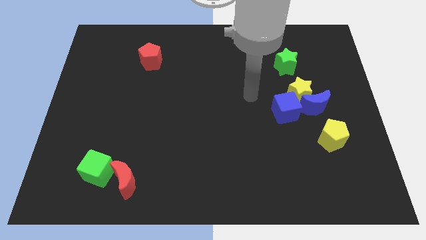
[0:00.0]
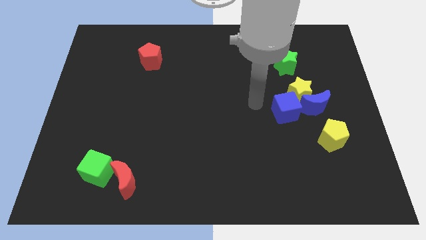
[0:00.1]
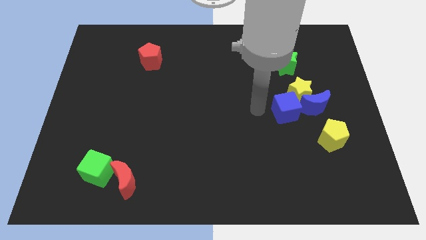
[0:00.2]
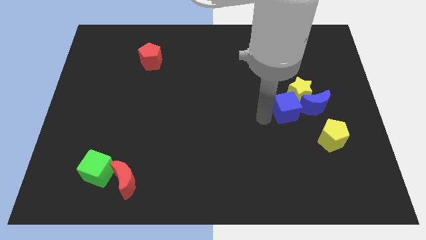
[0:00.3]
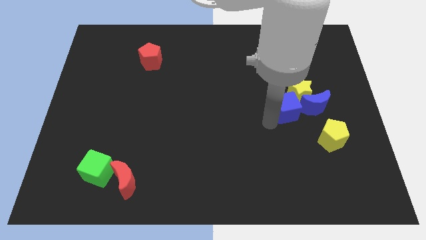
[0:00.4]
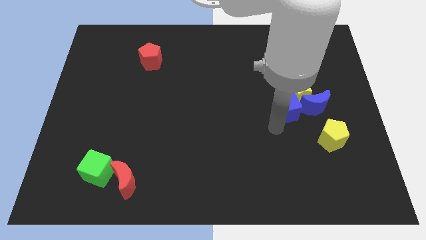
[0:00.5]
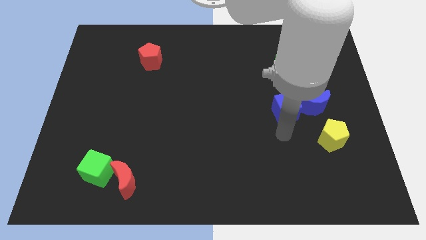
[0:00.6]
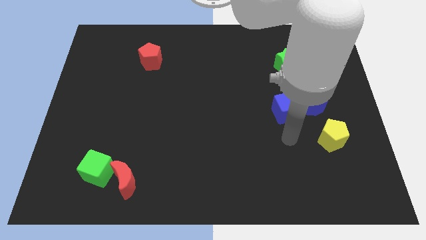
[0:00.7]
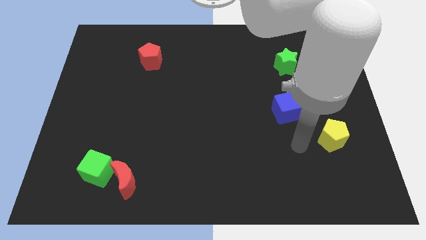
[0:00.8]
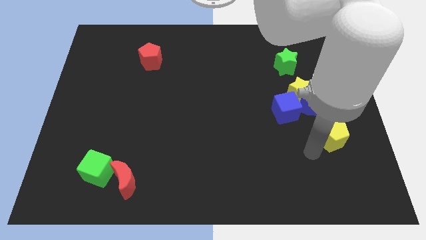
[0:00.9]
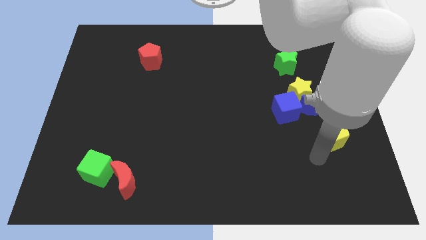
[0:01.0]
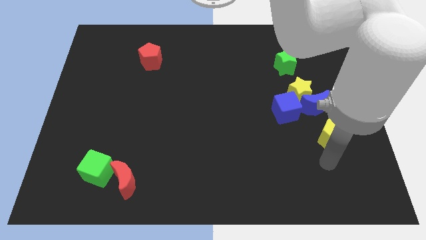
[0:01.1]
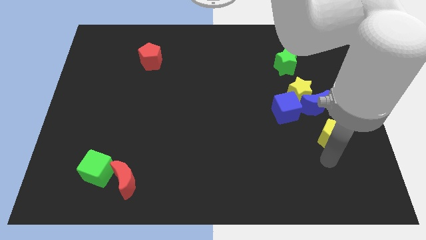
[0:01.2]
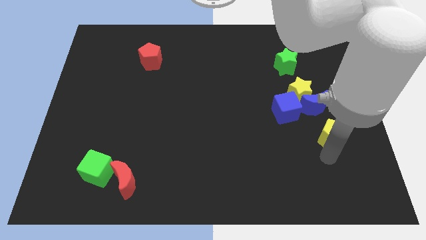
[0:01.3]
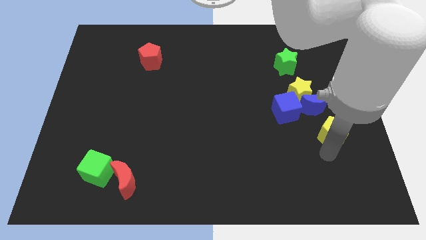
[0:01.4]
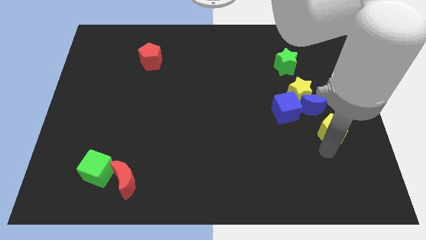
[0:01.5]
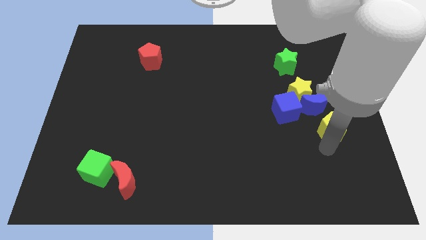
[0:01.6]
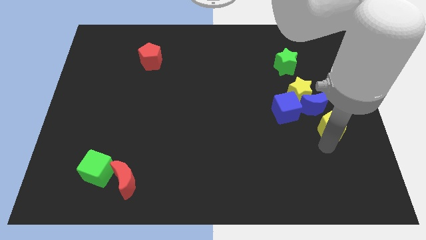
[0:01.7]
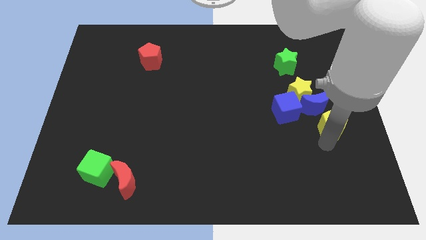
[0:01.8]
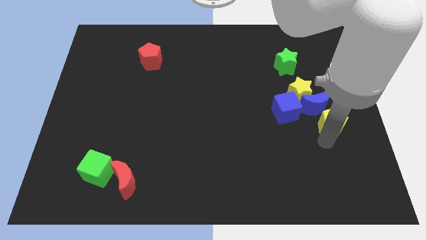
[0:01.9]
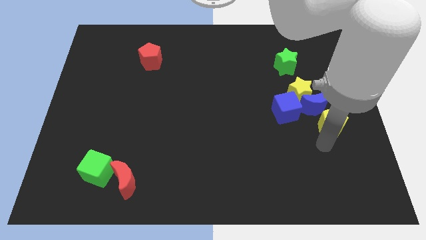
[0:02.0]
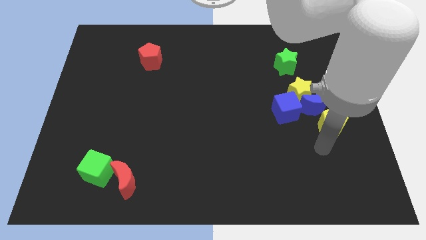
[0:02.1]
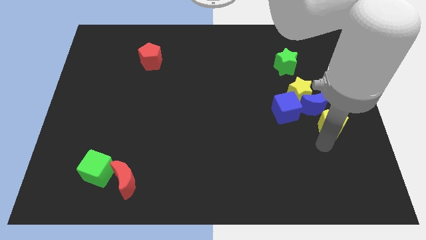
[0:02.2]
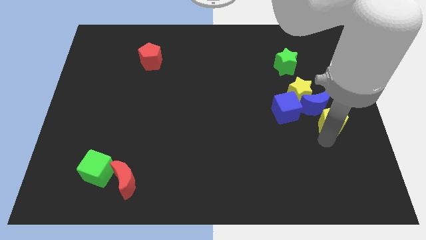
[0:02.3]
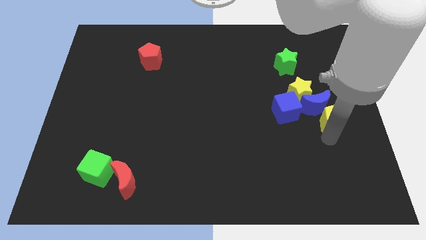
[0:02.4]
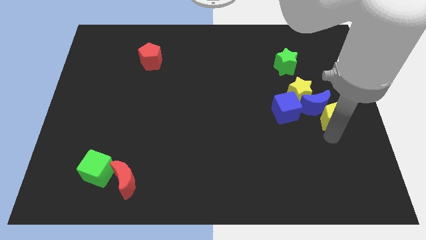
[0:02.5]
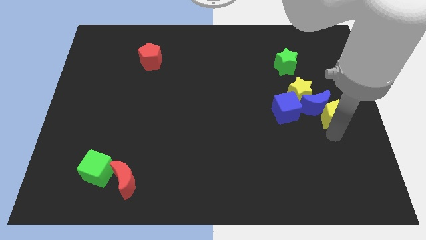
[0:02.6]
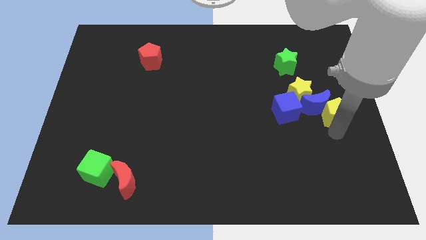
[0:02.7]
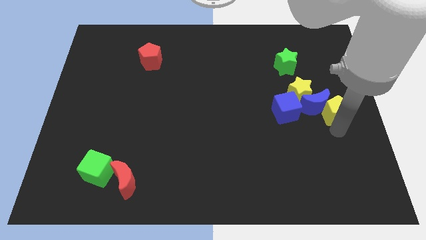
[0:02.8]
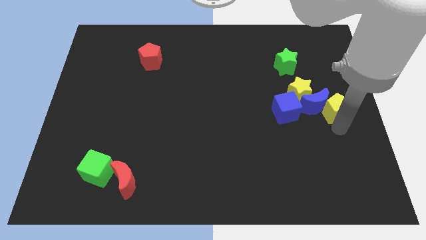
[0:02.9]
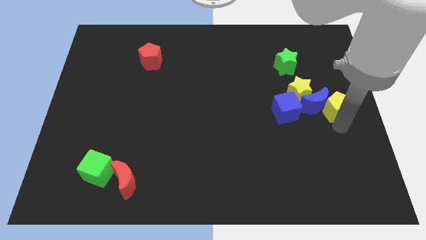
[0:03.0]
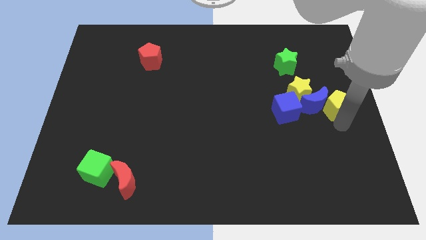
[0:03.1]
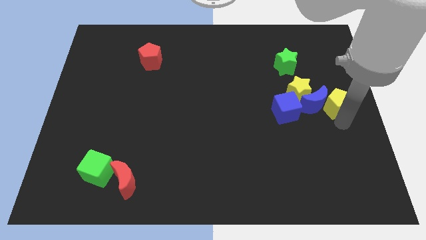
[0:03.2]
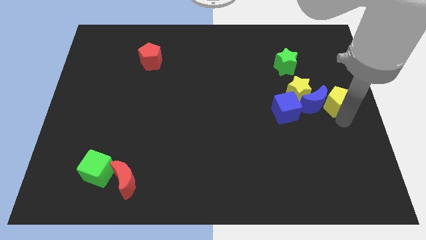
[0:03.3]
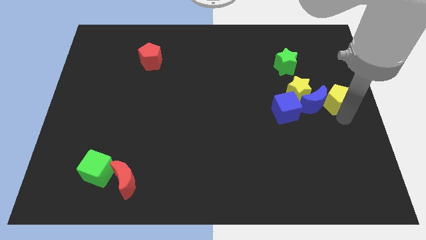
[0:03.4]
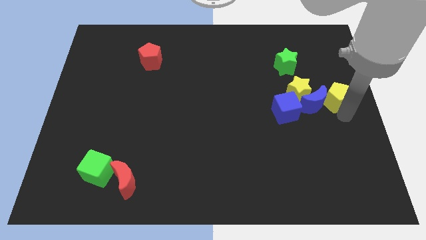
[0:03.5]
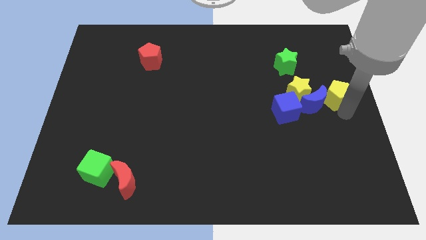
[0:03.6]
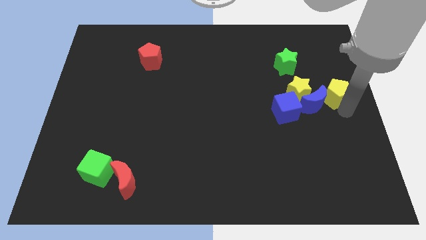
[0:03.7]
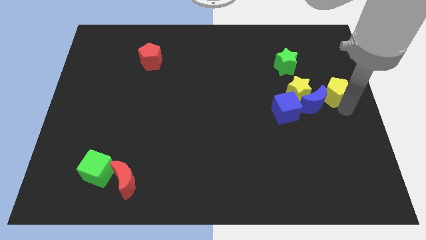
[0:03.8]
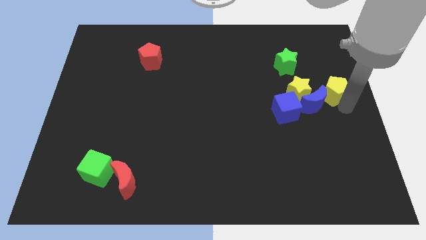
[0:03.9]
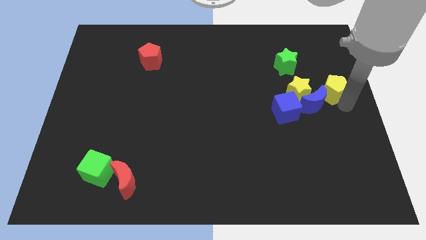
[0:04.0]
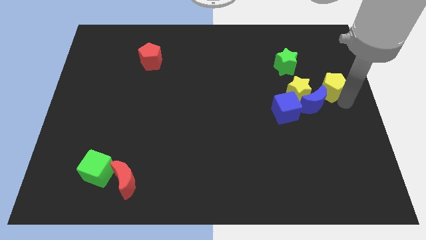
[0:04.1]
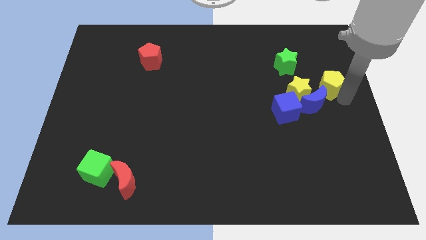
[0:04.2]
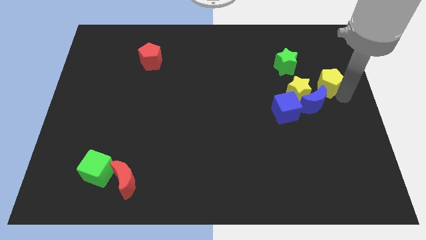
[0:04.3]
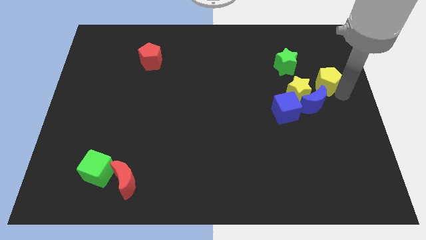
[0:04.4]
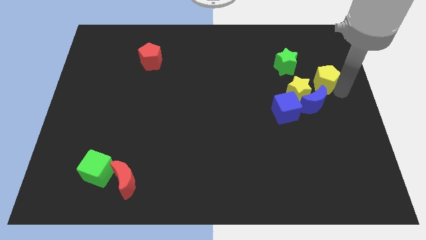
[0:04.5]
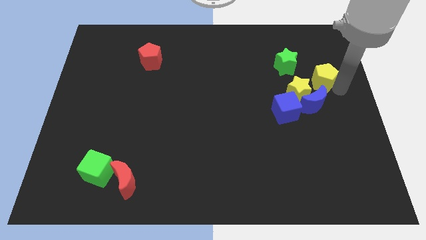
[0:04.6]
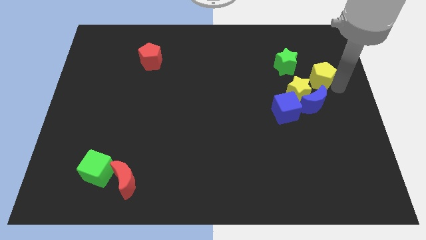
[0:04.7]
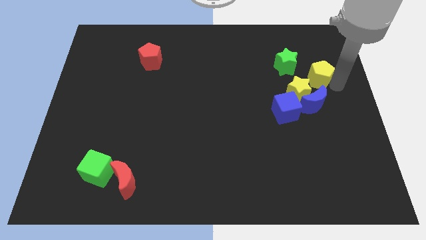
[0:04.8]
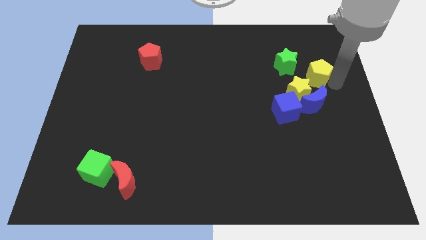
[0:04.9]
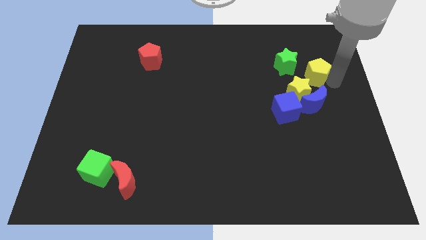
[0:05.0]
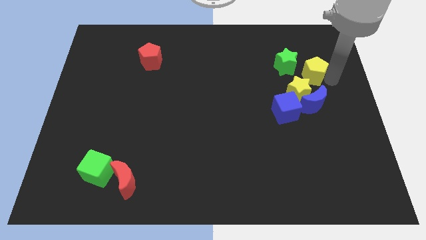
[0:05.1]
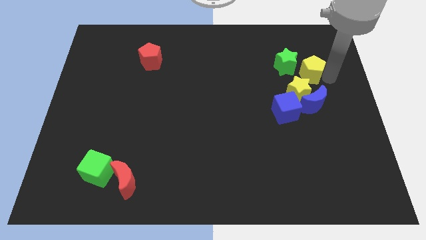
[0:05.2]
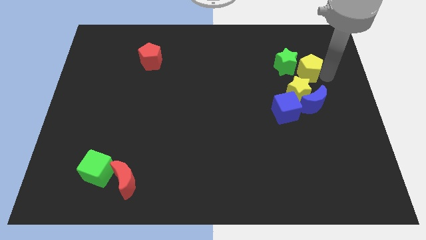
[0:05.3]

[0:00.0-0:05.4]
slide the yellow pentagon next to the green star

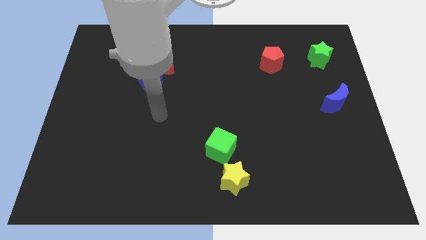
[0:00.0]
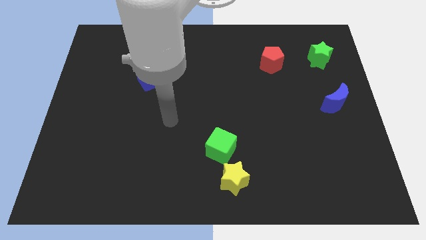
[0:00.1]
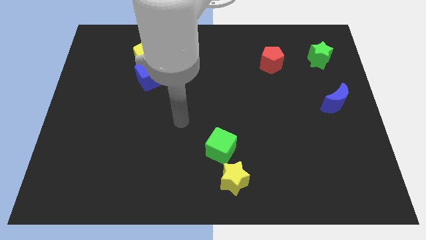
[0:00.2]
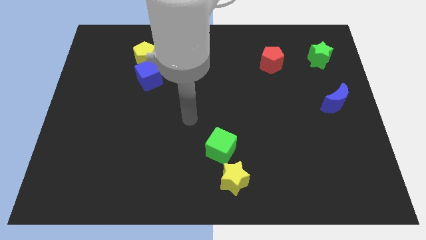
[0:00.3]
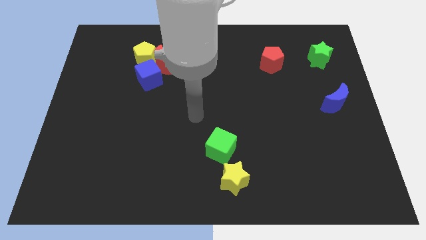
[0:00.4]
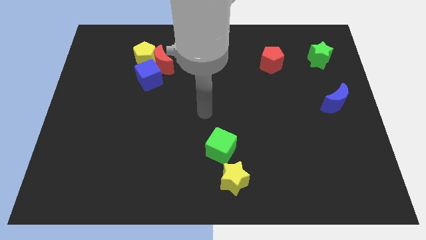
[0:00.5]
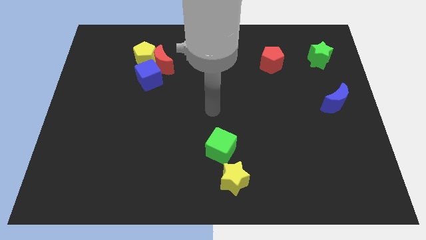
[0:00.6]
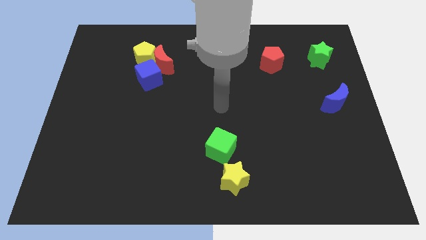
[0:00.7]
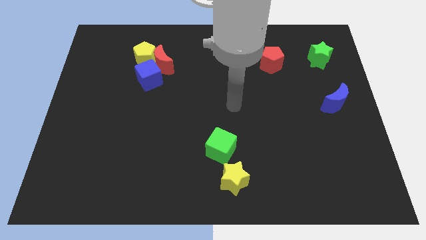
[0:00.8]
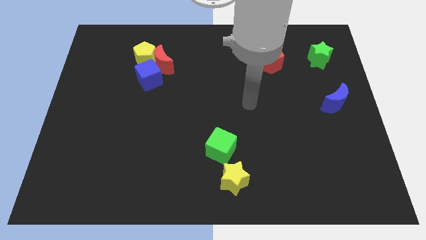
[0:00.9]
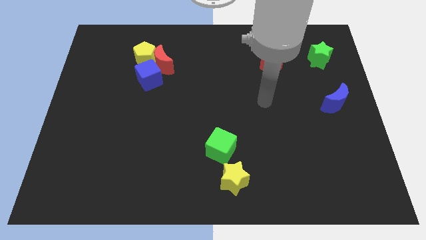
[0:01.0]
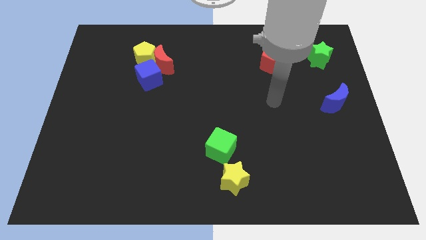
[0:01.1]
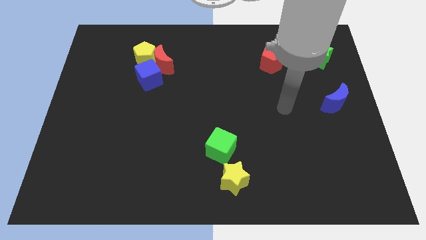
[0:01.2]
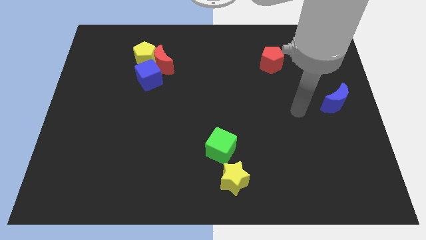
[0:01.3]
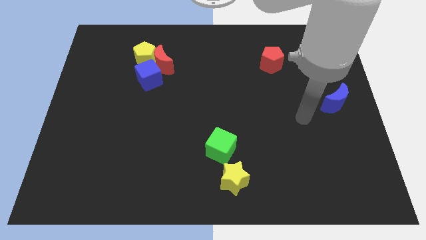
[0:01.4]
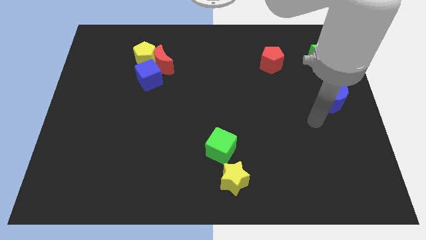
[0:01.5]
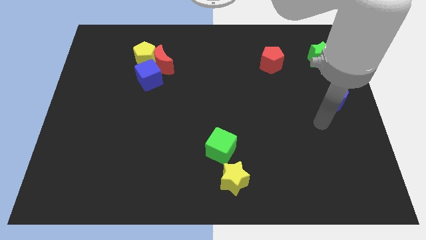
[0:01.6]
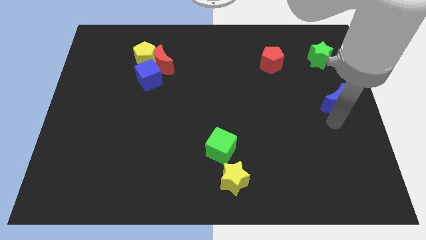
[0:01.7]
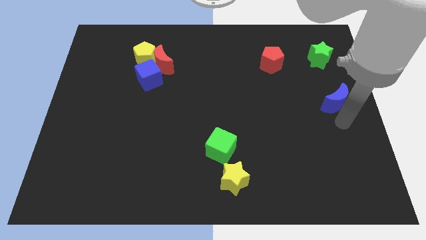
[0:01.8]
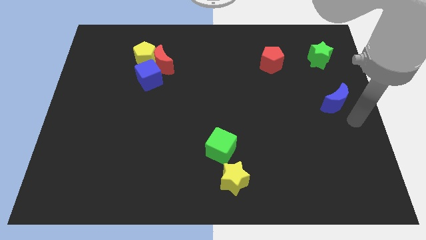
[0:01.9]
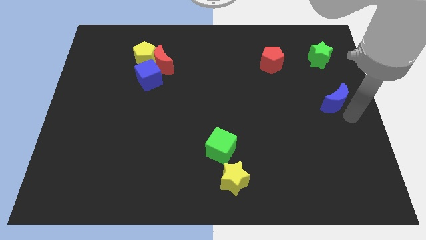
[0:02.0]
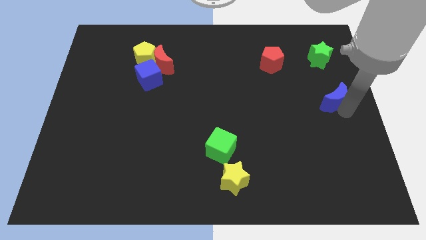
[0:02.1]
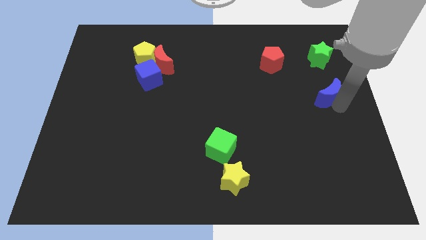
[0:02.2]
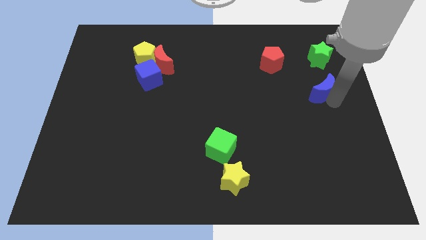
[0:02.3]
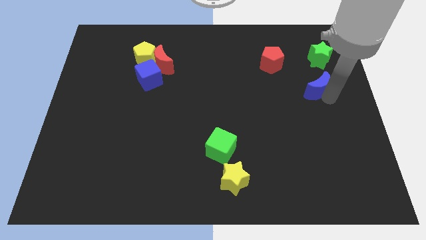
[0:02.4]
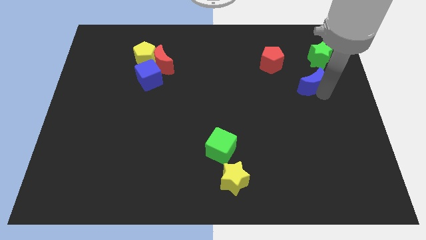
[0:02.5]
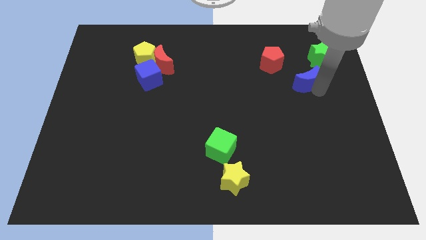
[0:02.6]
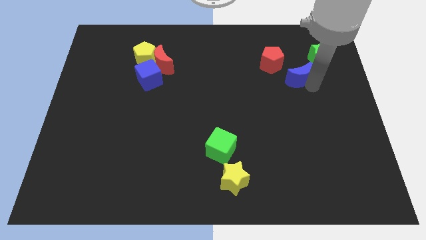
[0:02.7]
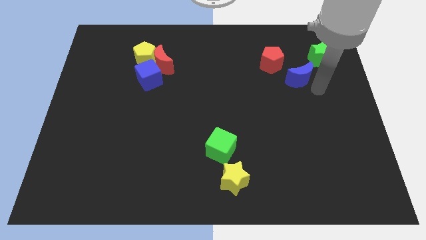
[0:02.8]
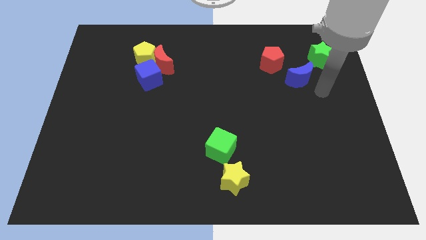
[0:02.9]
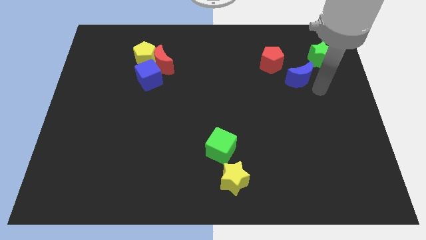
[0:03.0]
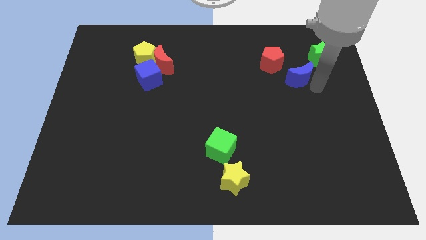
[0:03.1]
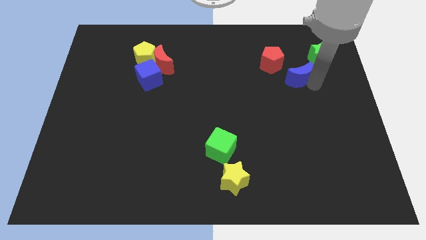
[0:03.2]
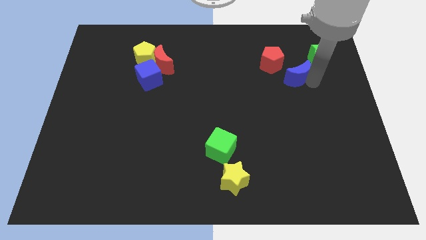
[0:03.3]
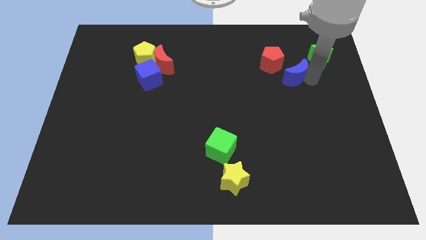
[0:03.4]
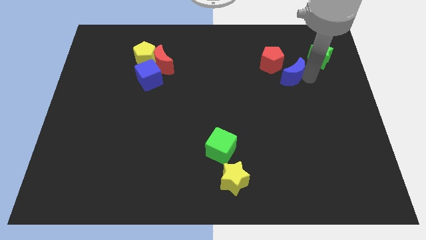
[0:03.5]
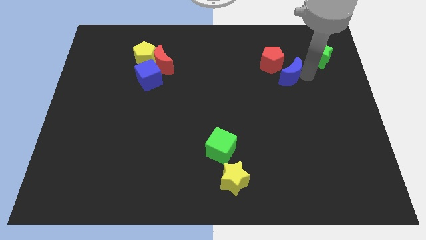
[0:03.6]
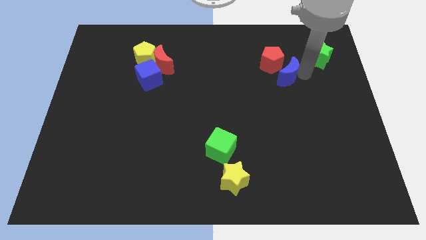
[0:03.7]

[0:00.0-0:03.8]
move the blue moon to the red pentagon
